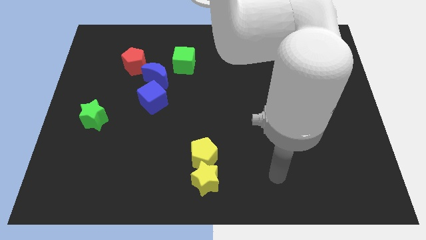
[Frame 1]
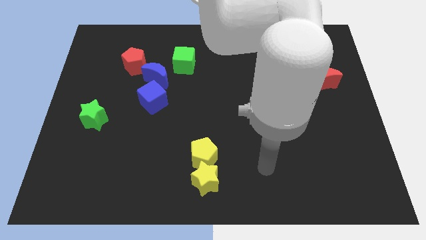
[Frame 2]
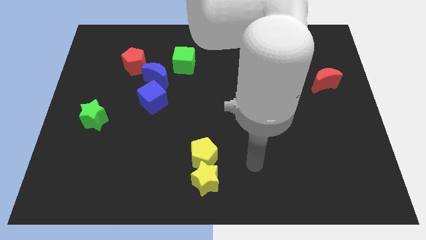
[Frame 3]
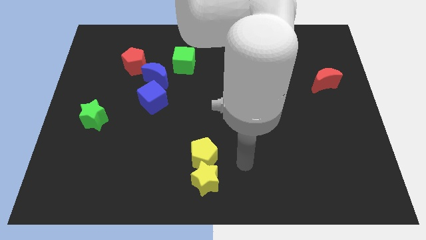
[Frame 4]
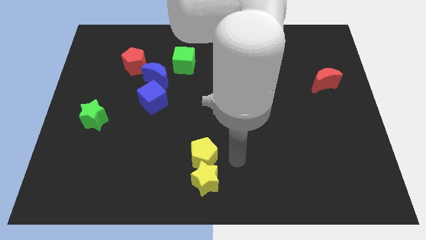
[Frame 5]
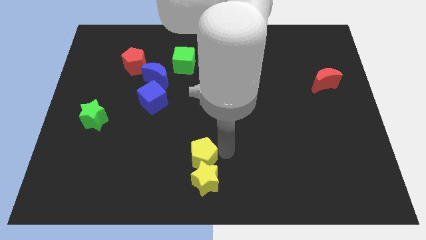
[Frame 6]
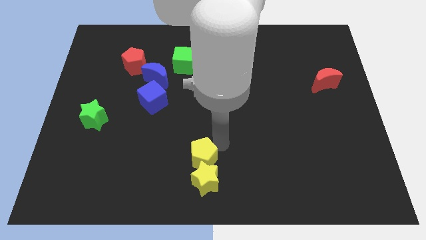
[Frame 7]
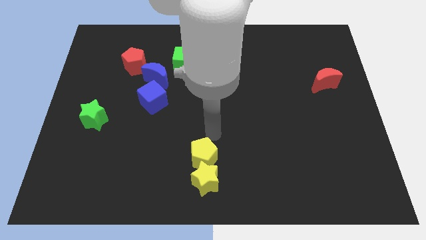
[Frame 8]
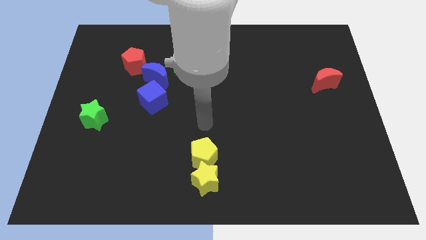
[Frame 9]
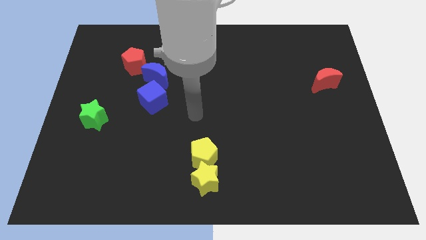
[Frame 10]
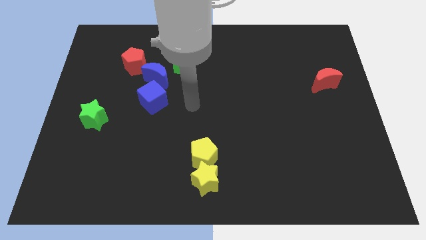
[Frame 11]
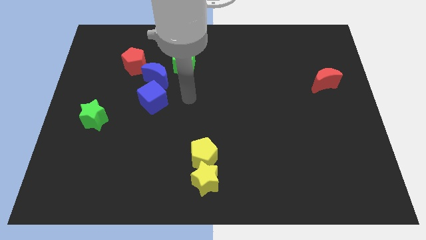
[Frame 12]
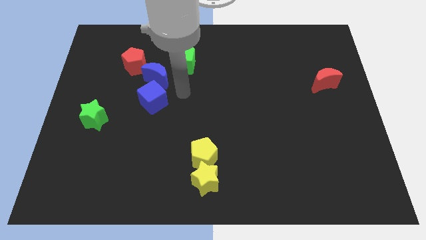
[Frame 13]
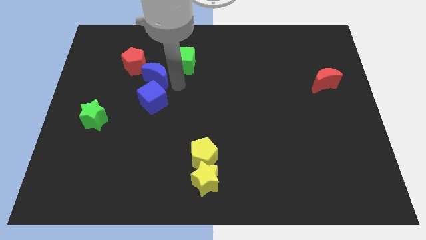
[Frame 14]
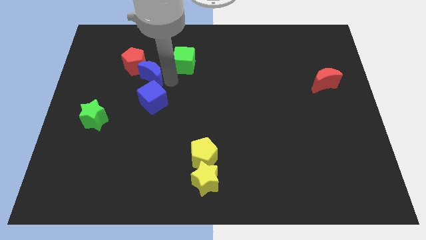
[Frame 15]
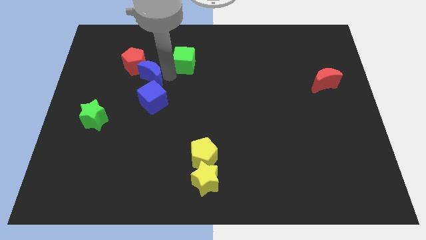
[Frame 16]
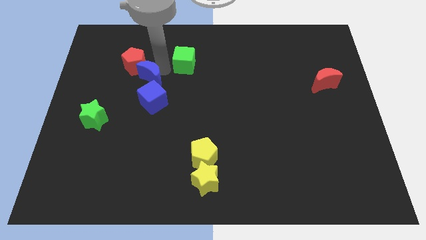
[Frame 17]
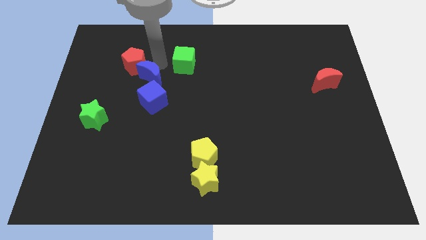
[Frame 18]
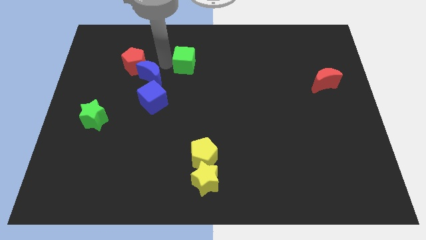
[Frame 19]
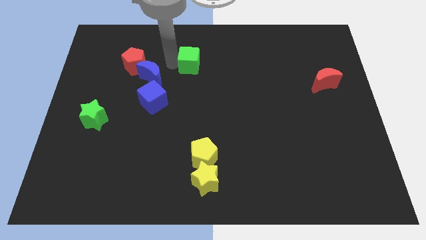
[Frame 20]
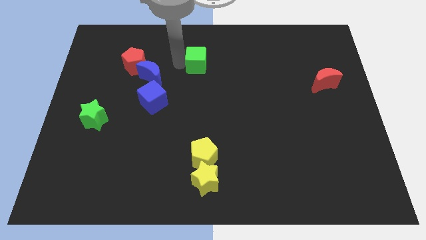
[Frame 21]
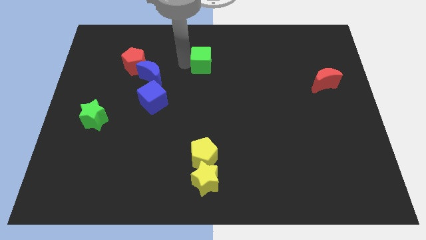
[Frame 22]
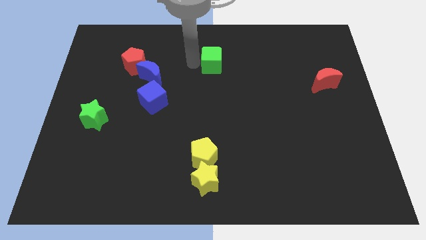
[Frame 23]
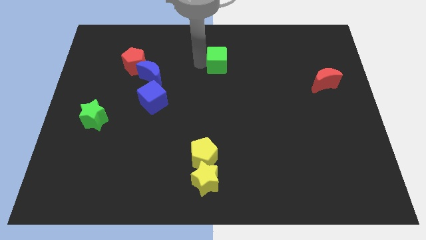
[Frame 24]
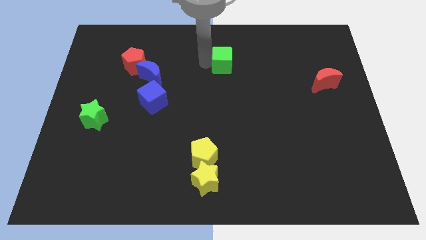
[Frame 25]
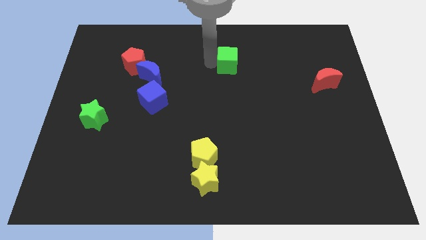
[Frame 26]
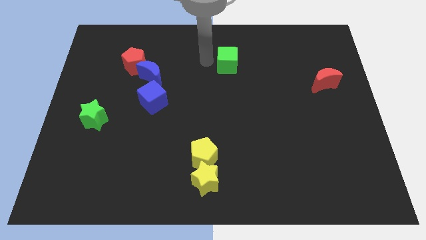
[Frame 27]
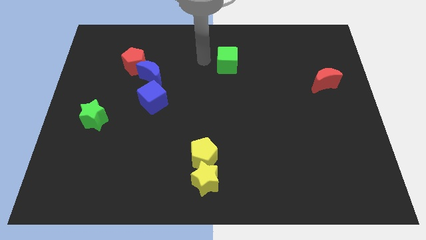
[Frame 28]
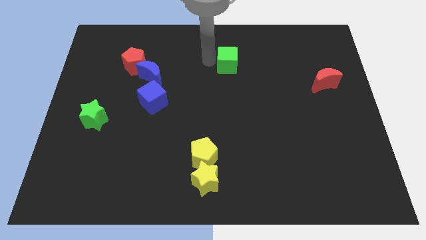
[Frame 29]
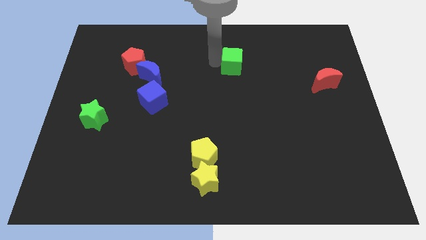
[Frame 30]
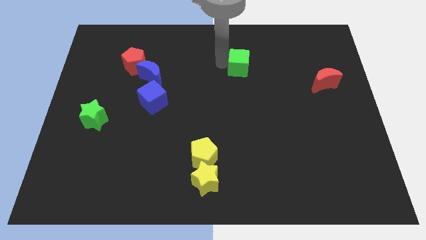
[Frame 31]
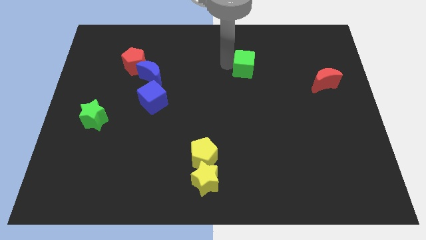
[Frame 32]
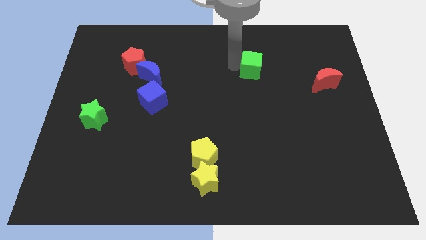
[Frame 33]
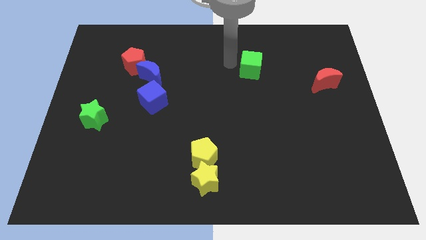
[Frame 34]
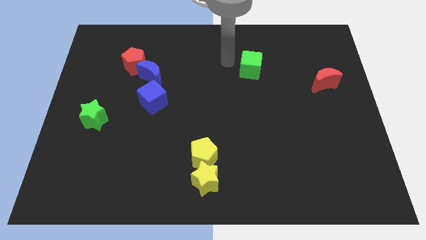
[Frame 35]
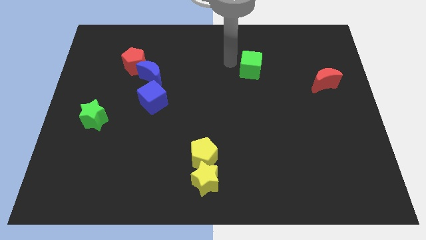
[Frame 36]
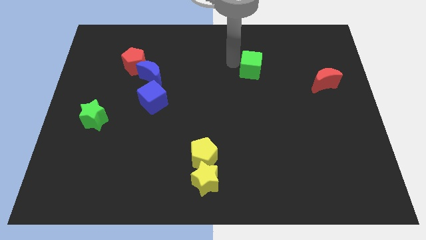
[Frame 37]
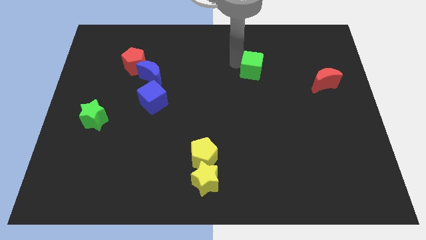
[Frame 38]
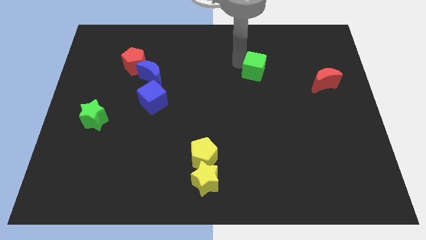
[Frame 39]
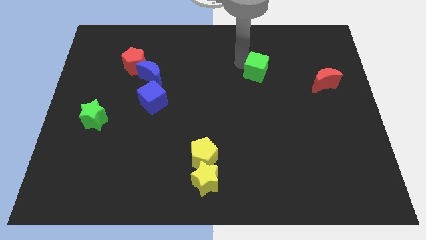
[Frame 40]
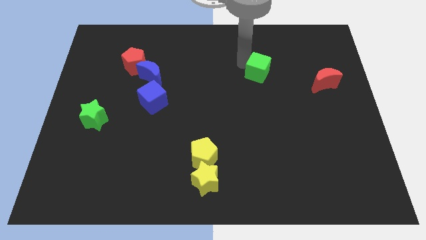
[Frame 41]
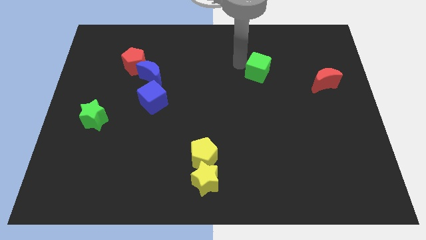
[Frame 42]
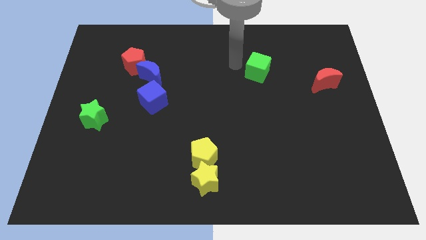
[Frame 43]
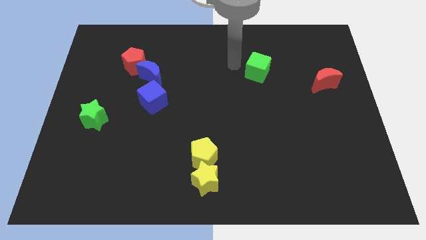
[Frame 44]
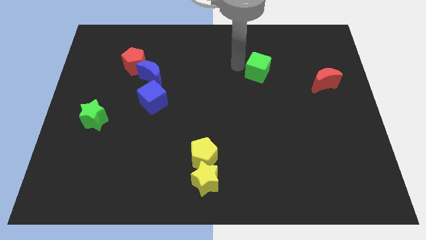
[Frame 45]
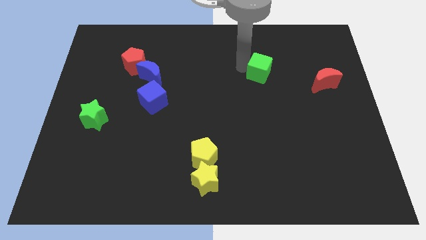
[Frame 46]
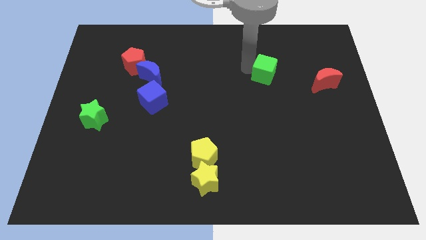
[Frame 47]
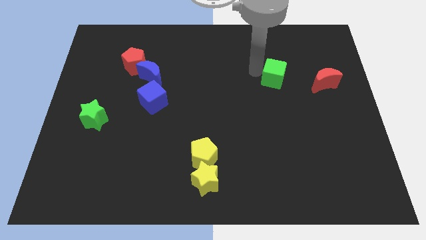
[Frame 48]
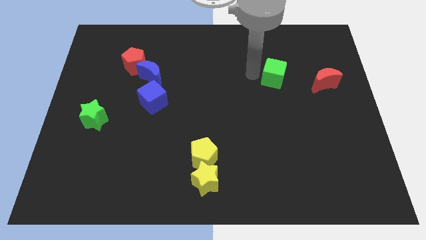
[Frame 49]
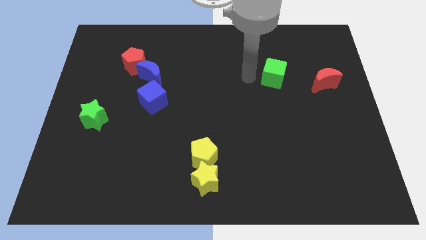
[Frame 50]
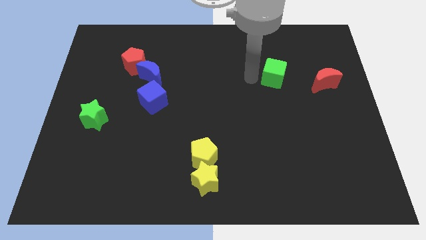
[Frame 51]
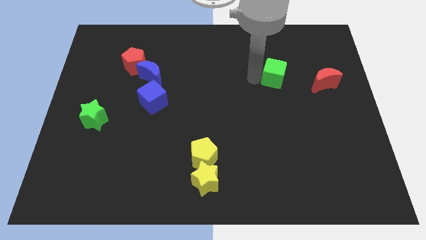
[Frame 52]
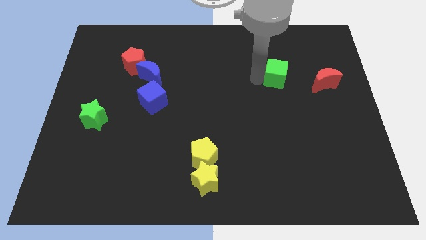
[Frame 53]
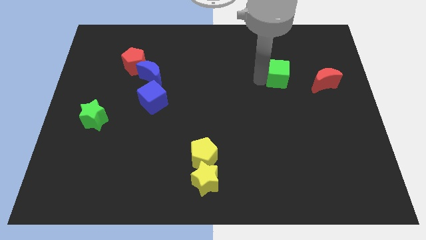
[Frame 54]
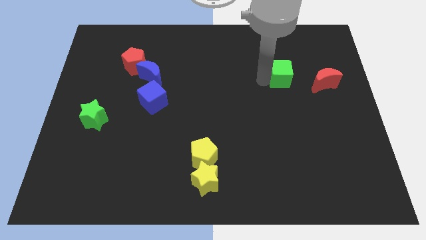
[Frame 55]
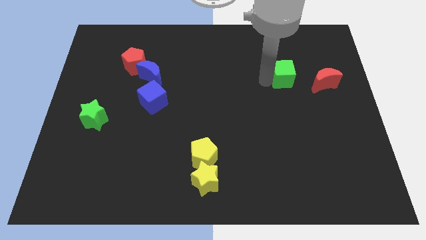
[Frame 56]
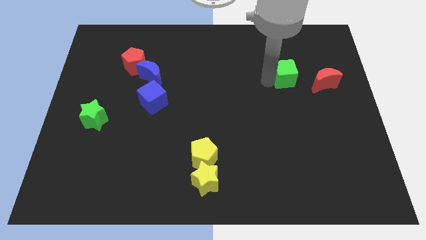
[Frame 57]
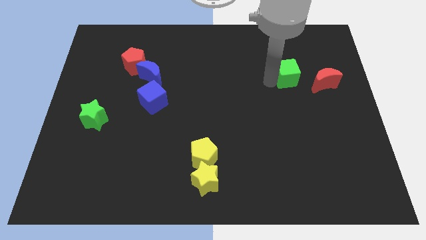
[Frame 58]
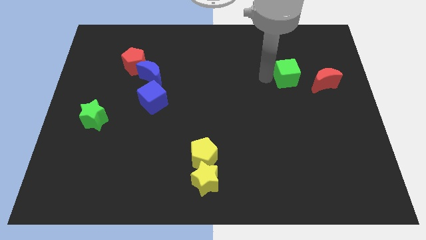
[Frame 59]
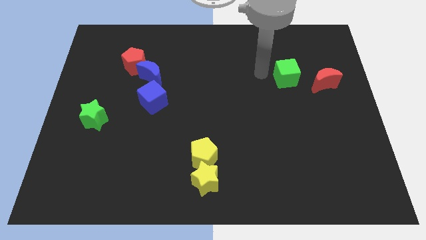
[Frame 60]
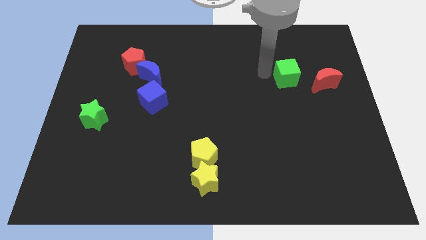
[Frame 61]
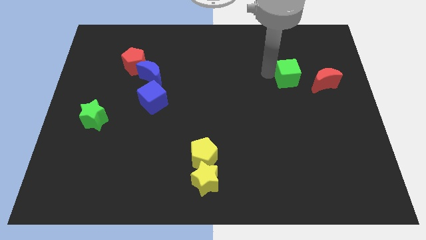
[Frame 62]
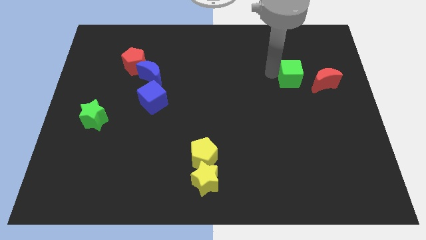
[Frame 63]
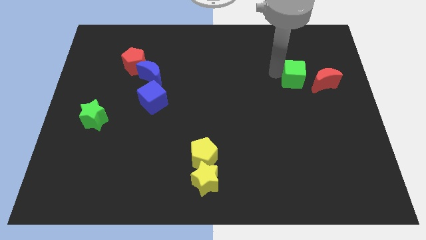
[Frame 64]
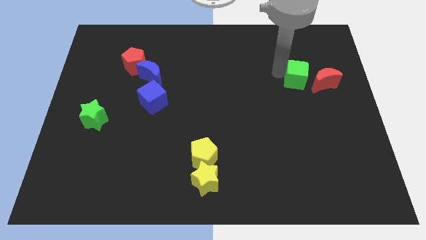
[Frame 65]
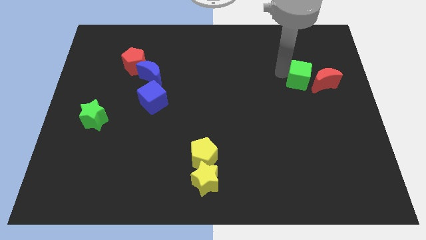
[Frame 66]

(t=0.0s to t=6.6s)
push the green cube next to the red moon

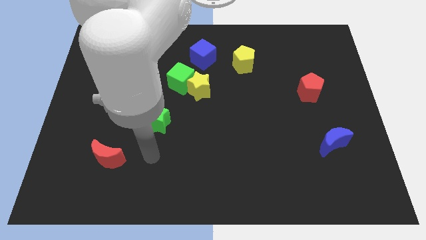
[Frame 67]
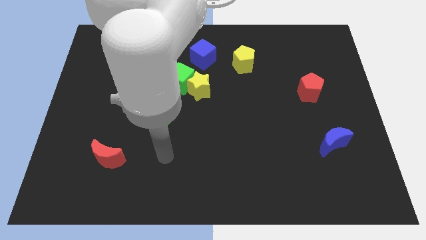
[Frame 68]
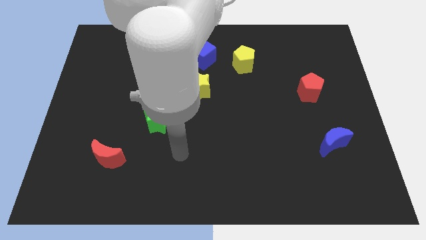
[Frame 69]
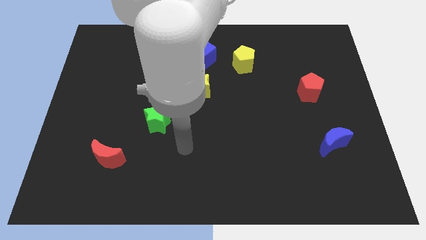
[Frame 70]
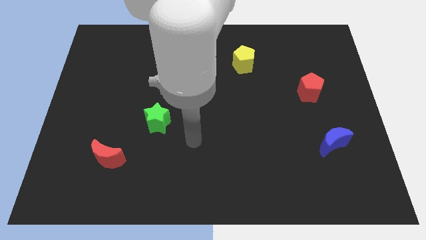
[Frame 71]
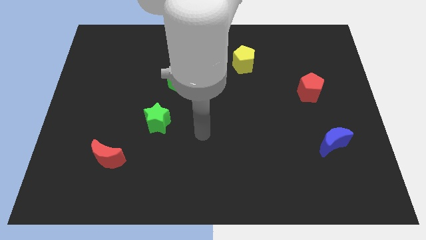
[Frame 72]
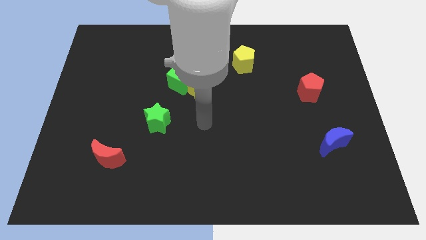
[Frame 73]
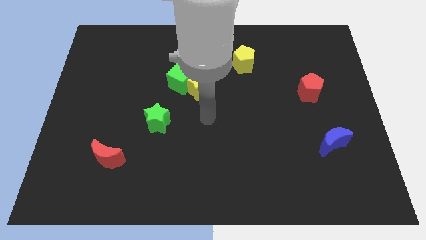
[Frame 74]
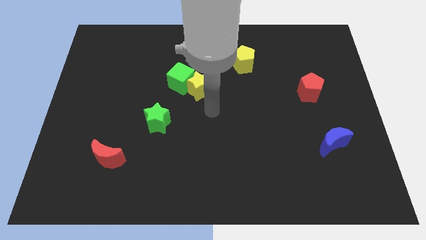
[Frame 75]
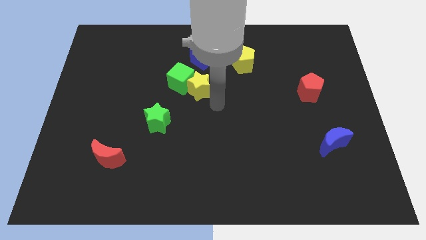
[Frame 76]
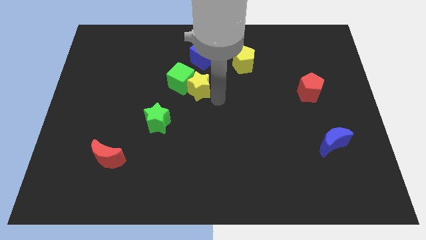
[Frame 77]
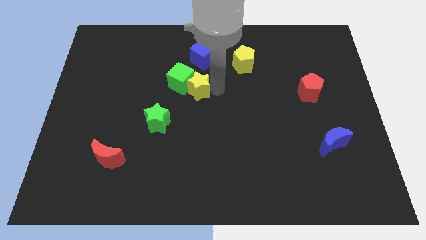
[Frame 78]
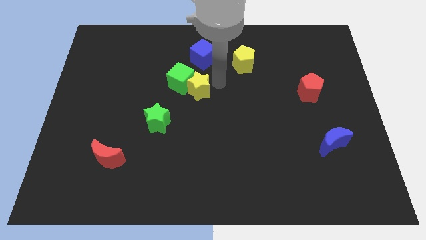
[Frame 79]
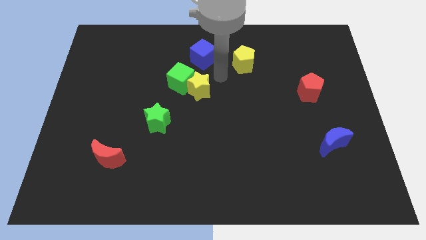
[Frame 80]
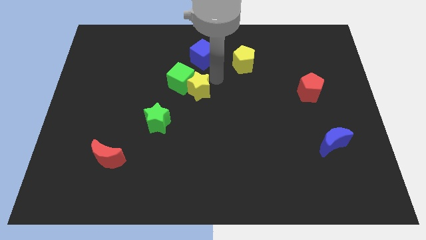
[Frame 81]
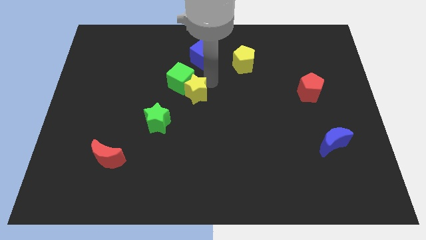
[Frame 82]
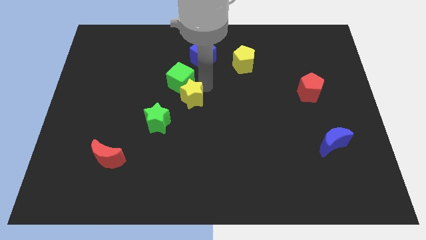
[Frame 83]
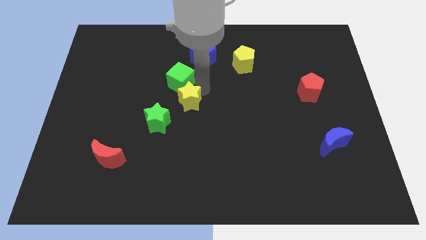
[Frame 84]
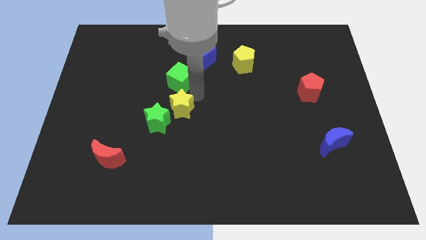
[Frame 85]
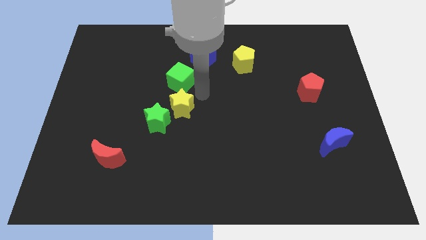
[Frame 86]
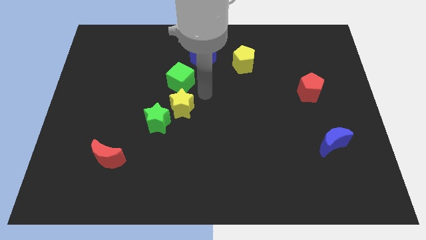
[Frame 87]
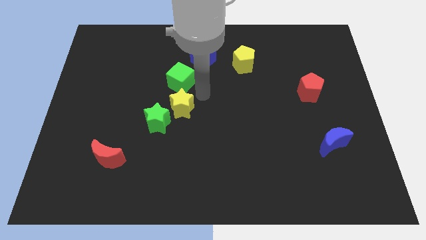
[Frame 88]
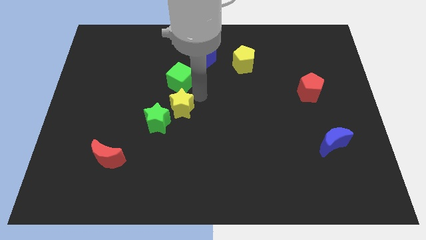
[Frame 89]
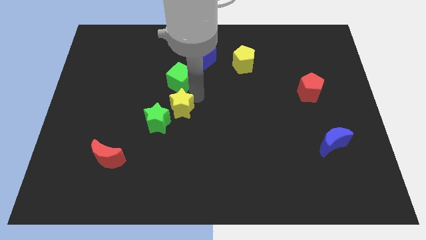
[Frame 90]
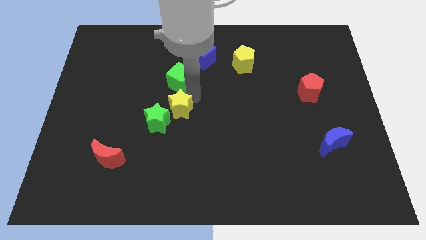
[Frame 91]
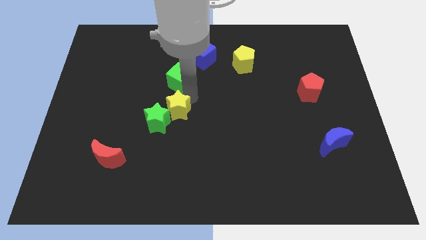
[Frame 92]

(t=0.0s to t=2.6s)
slide the yellow star towards the green star
